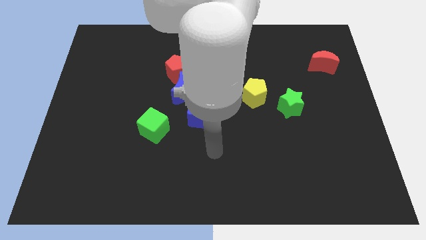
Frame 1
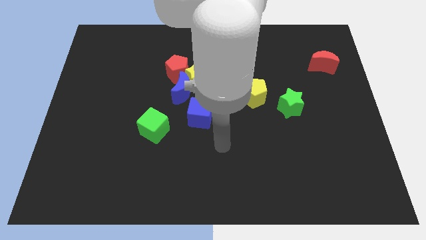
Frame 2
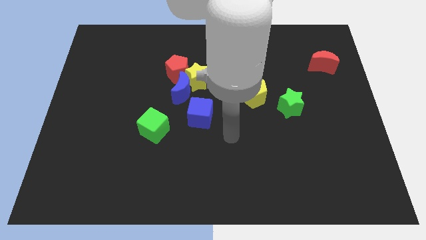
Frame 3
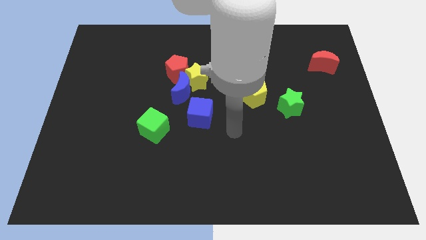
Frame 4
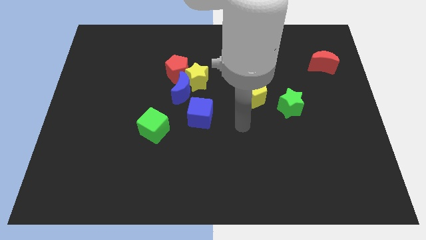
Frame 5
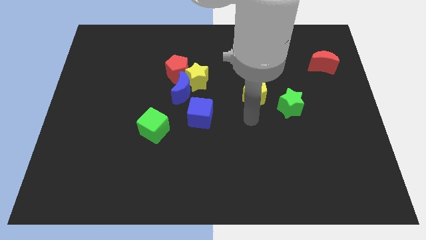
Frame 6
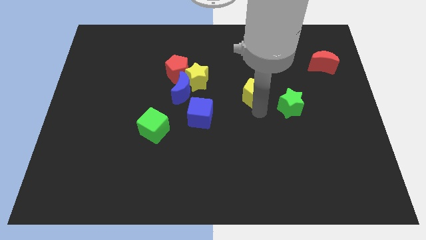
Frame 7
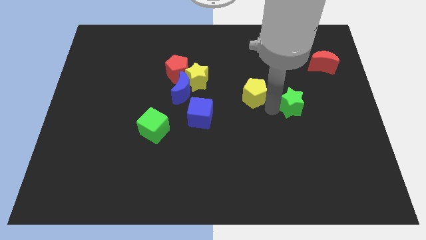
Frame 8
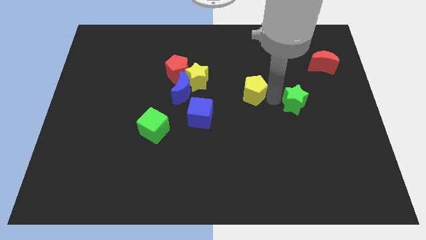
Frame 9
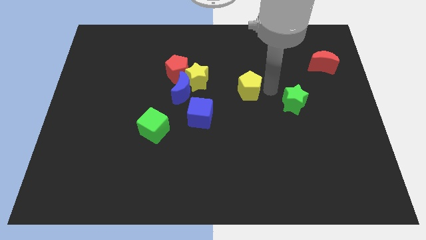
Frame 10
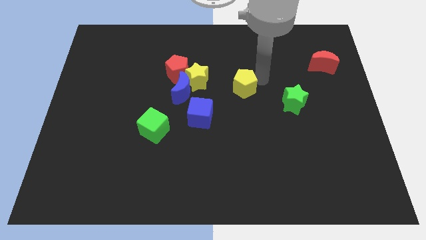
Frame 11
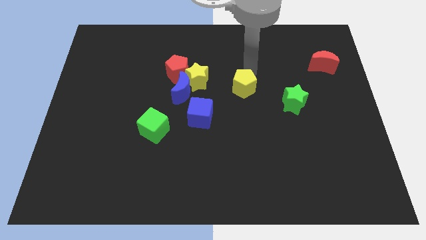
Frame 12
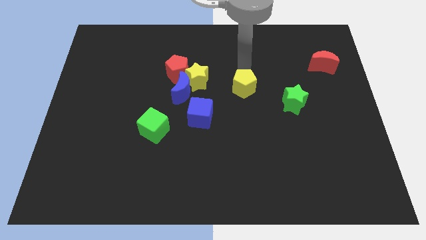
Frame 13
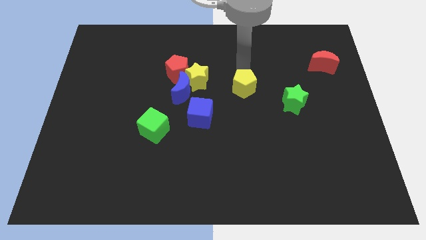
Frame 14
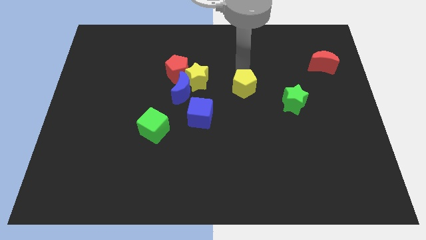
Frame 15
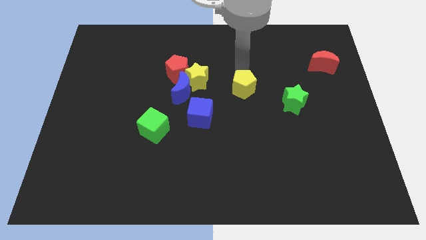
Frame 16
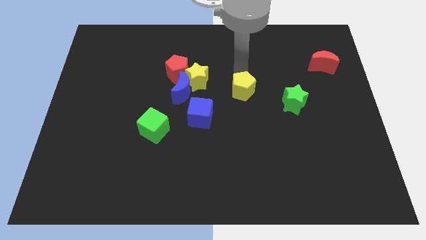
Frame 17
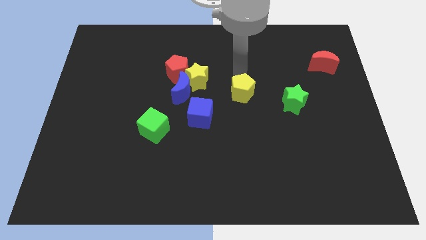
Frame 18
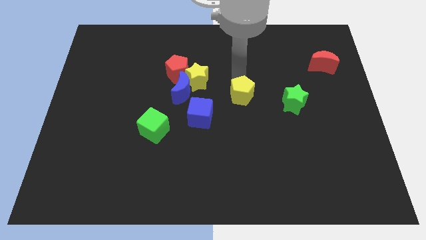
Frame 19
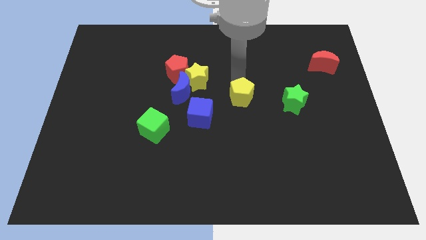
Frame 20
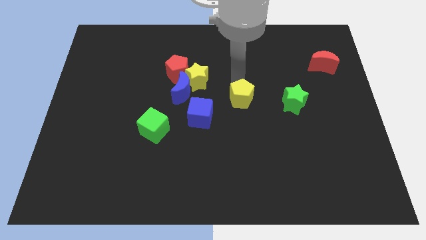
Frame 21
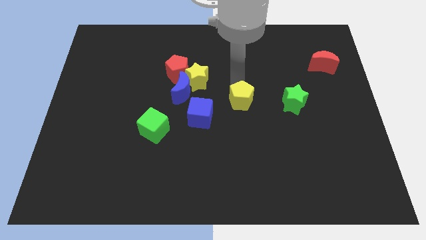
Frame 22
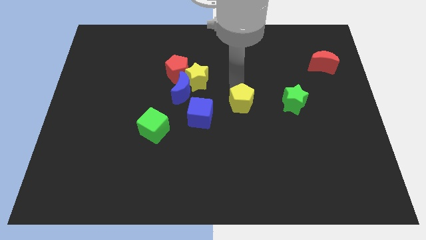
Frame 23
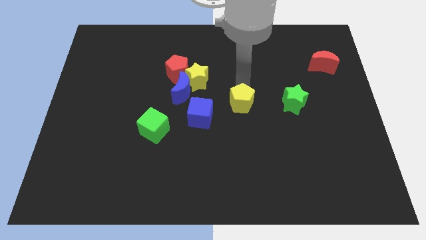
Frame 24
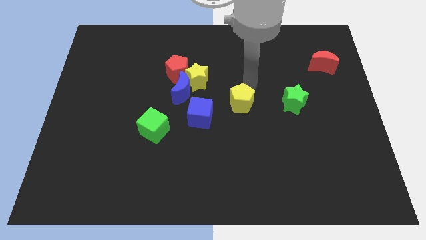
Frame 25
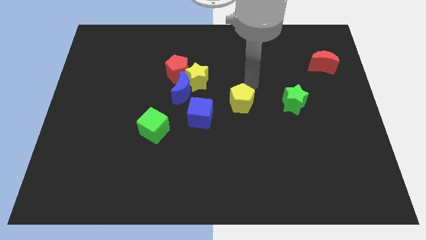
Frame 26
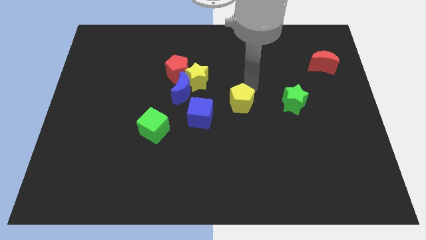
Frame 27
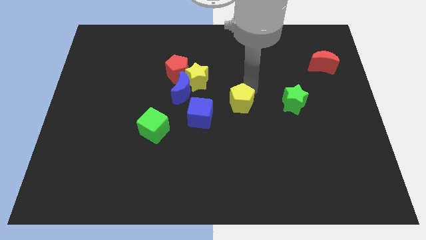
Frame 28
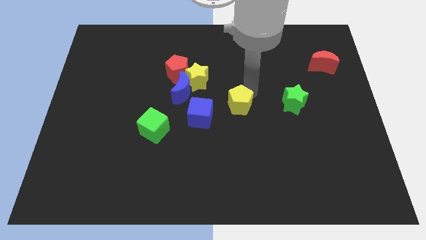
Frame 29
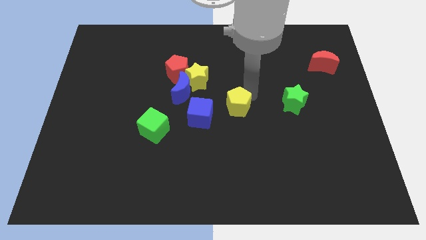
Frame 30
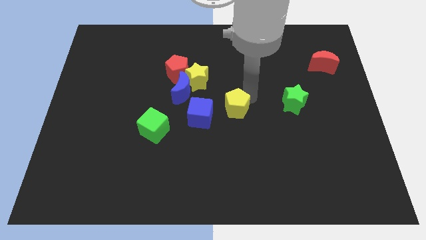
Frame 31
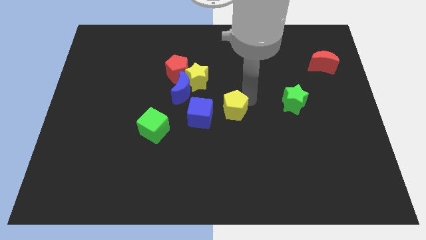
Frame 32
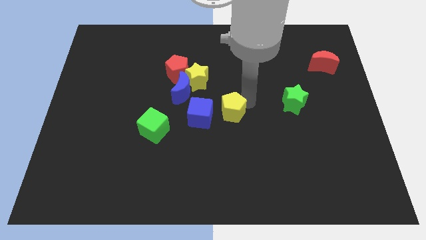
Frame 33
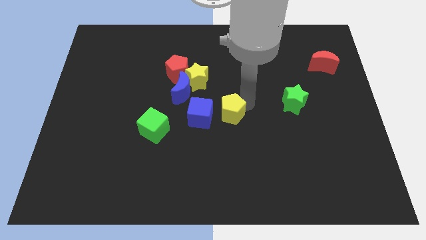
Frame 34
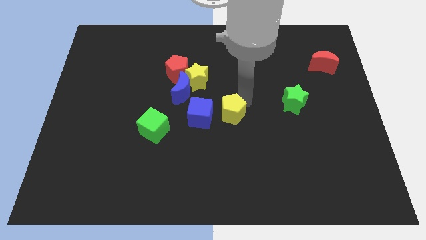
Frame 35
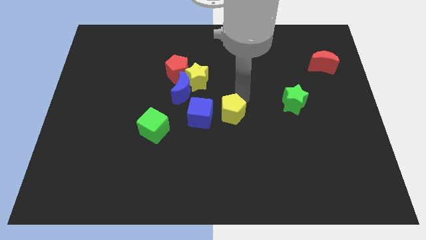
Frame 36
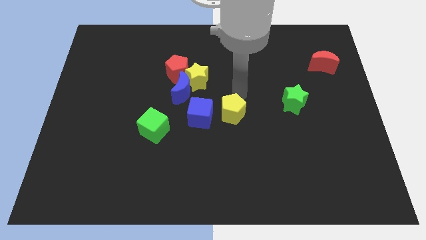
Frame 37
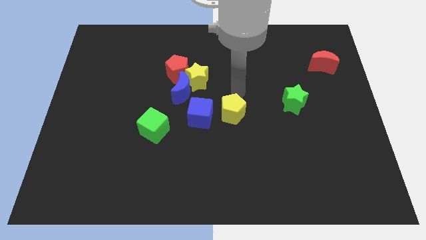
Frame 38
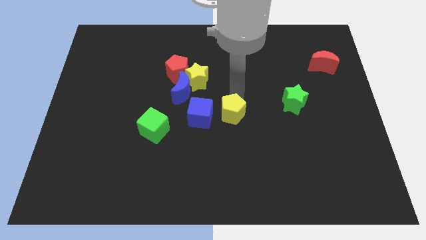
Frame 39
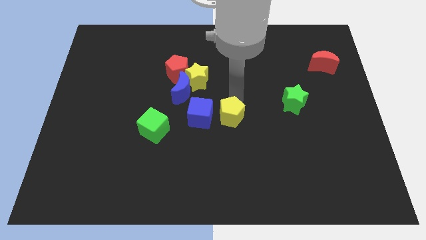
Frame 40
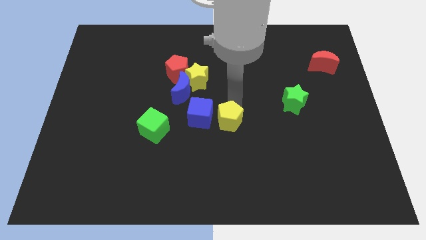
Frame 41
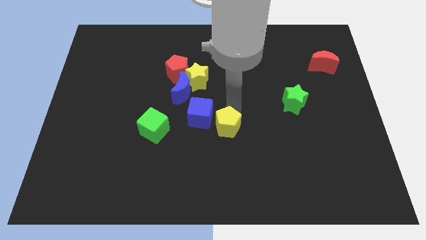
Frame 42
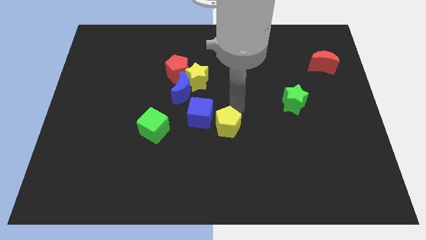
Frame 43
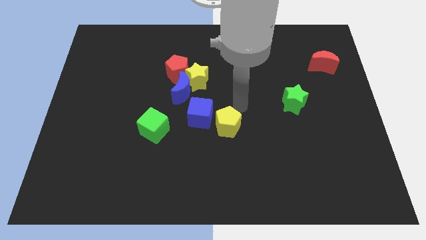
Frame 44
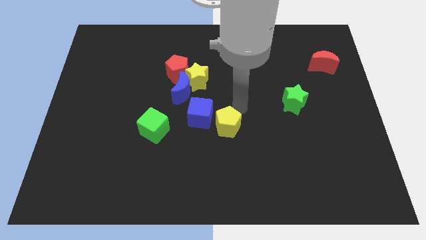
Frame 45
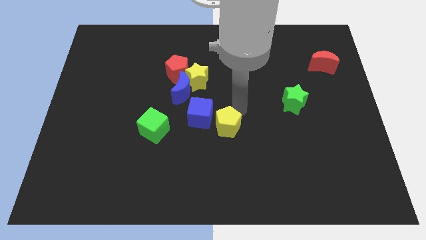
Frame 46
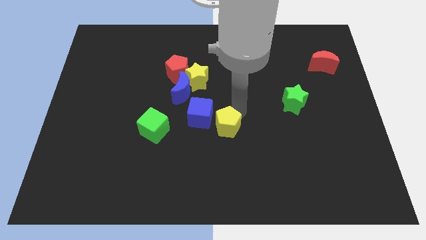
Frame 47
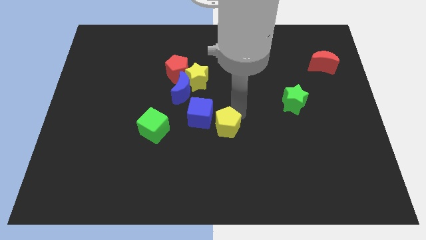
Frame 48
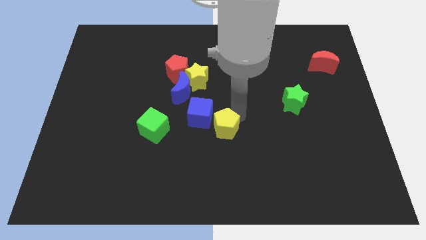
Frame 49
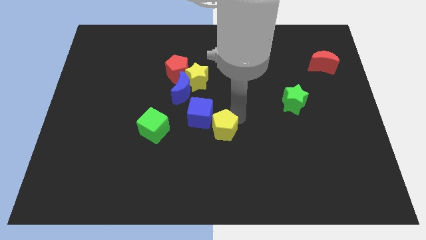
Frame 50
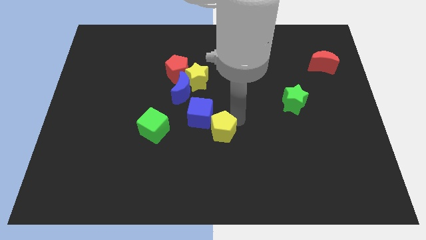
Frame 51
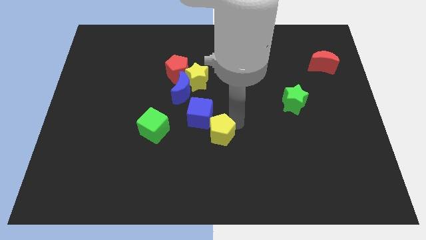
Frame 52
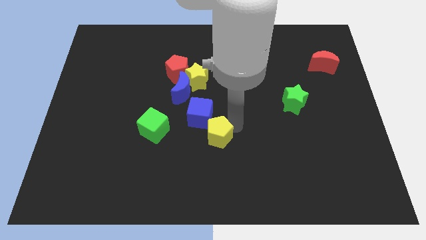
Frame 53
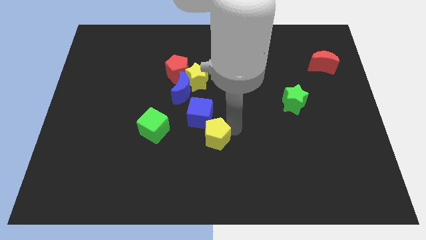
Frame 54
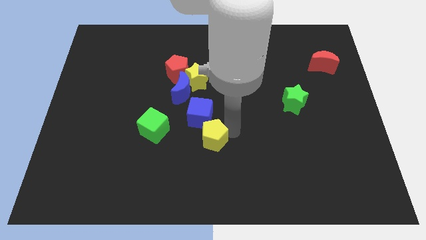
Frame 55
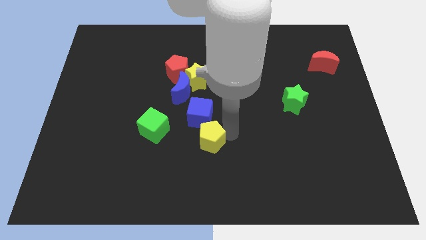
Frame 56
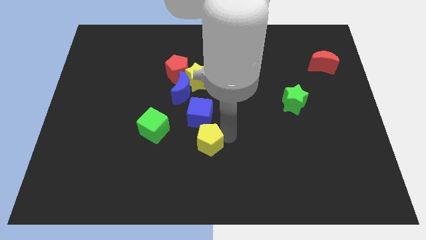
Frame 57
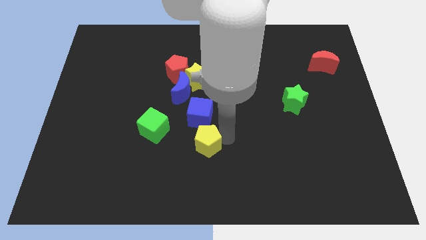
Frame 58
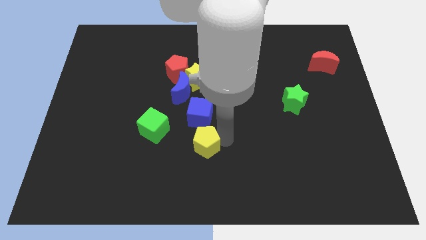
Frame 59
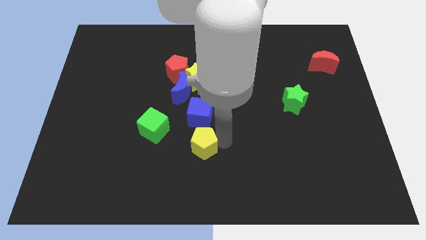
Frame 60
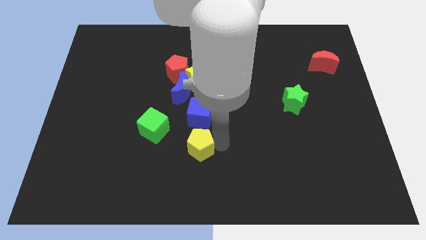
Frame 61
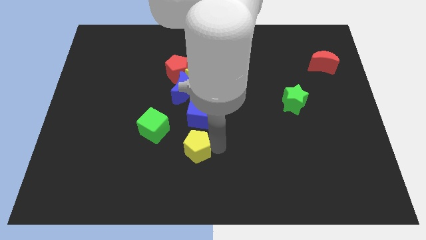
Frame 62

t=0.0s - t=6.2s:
slide the yellow pentagon down and then to the left

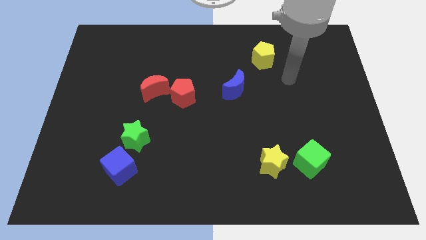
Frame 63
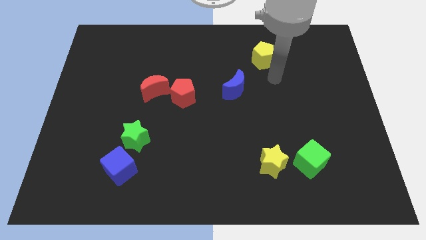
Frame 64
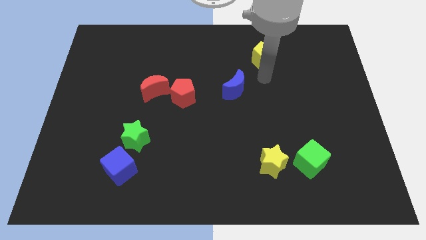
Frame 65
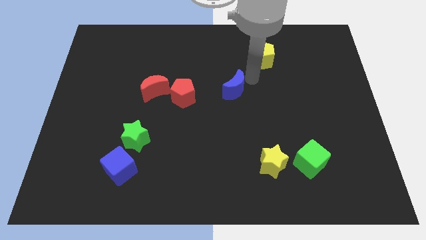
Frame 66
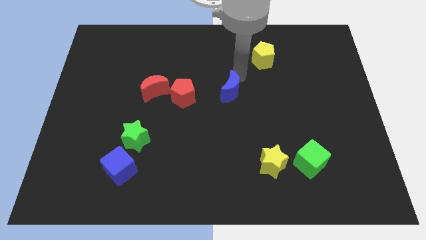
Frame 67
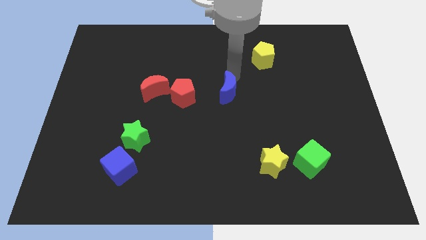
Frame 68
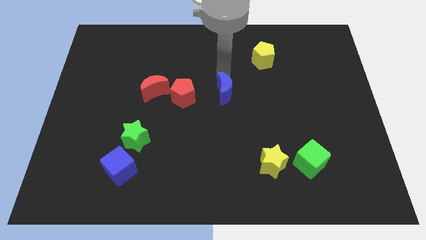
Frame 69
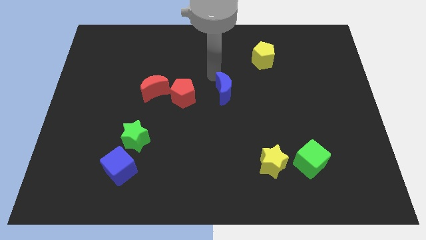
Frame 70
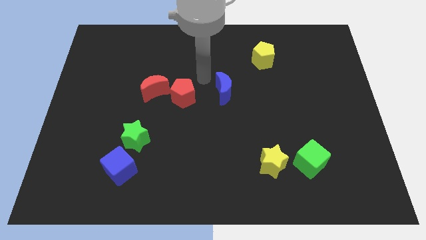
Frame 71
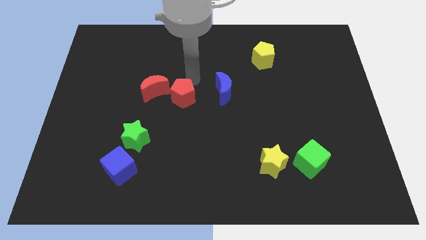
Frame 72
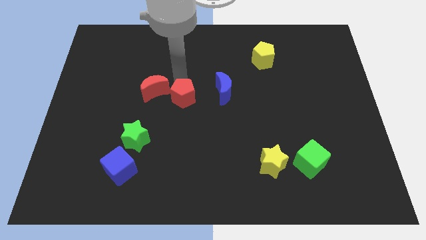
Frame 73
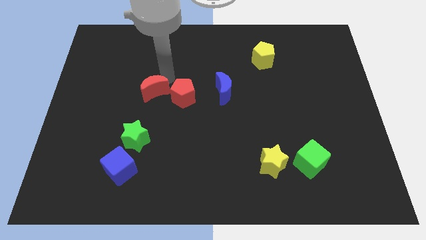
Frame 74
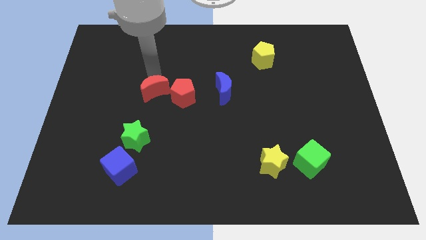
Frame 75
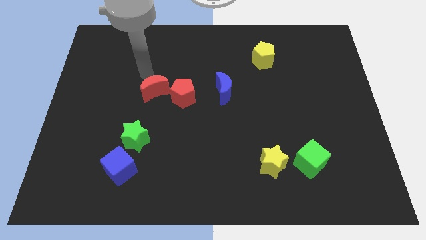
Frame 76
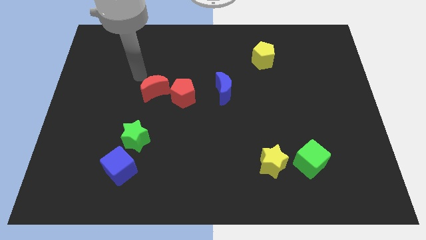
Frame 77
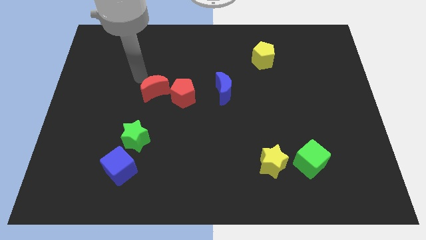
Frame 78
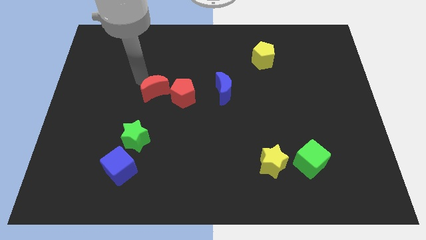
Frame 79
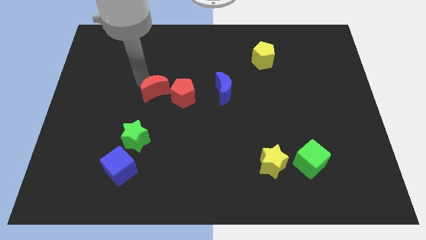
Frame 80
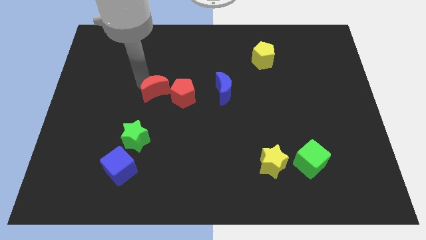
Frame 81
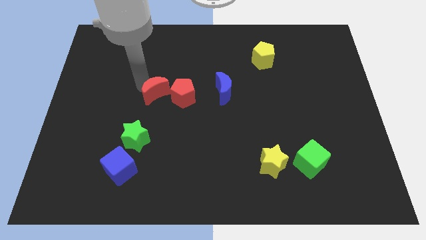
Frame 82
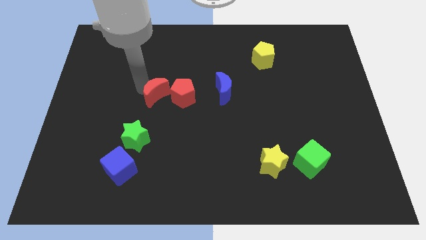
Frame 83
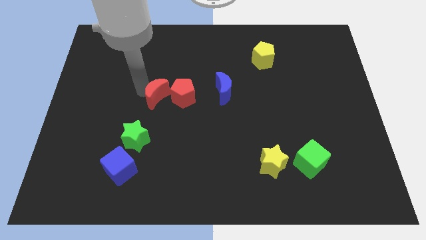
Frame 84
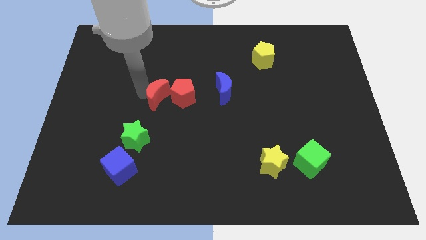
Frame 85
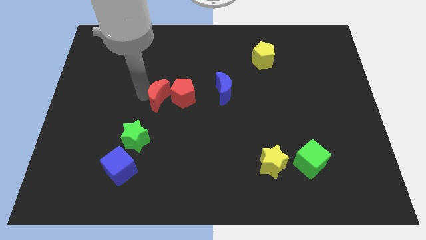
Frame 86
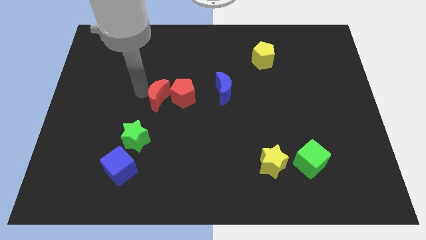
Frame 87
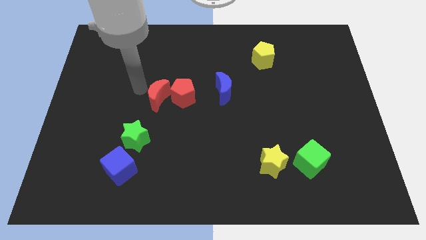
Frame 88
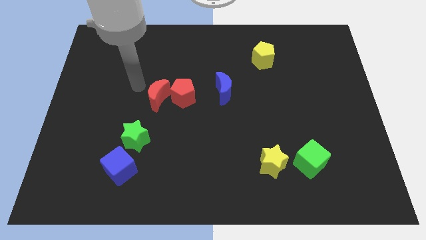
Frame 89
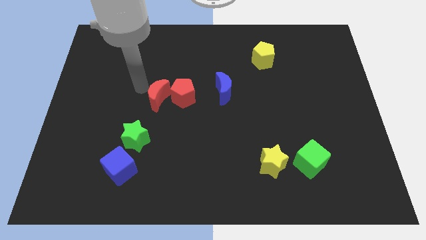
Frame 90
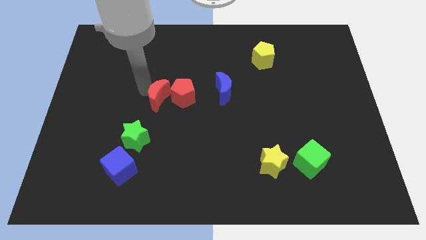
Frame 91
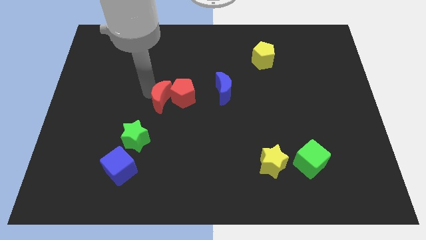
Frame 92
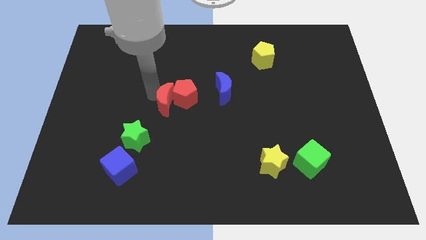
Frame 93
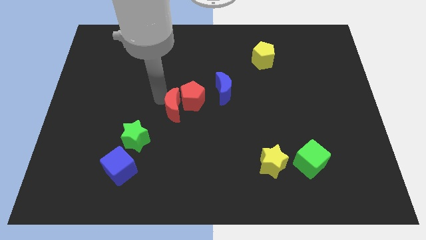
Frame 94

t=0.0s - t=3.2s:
slightly slide the red moon down and then to the right
